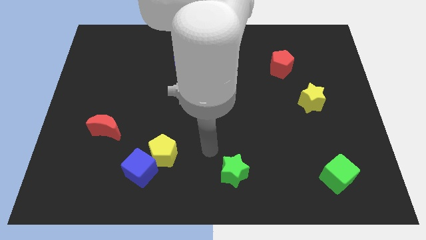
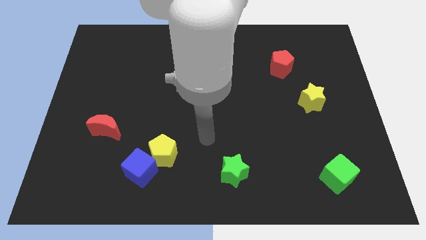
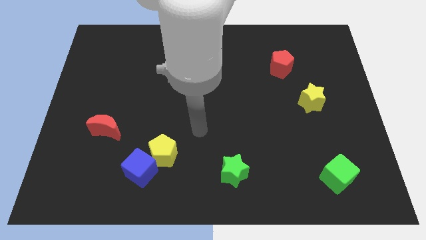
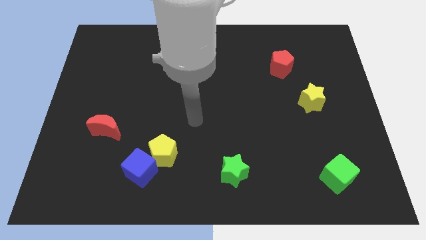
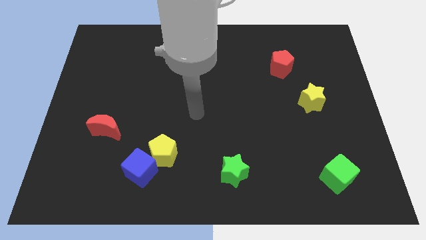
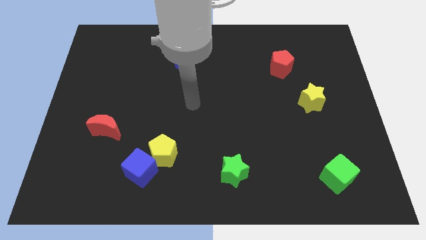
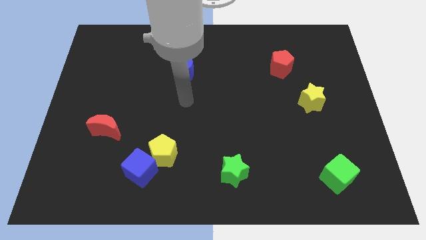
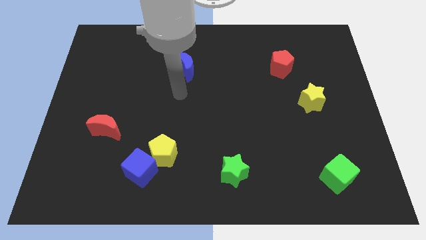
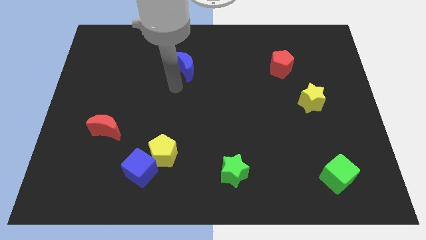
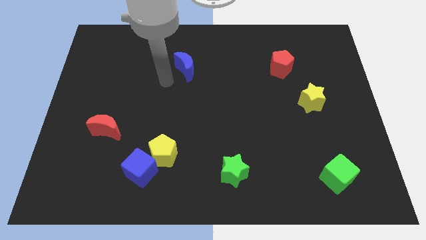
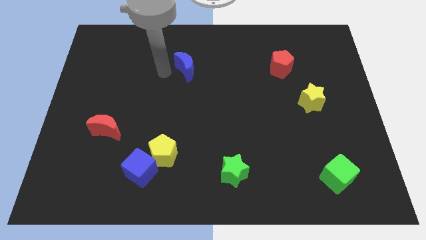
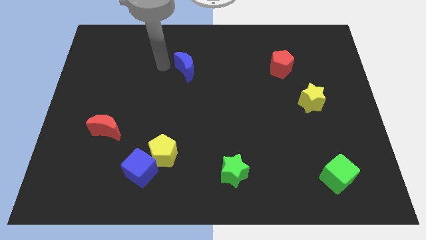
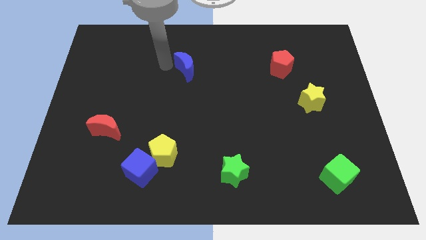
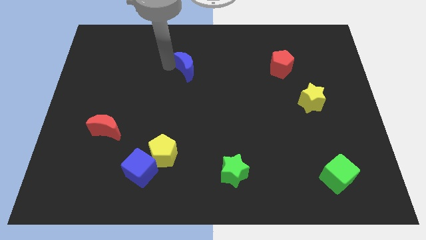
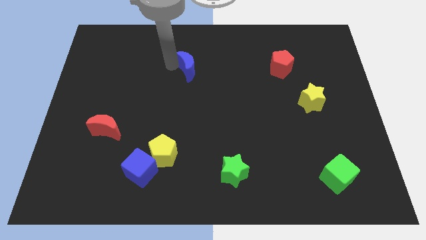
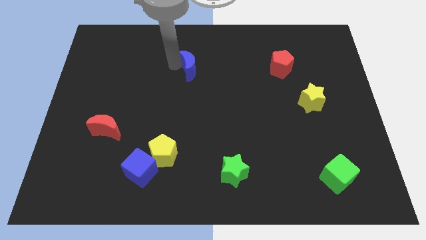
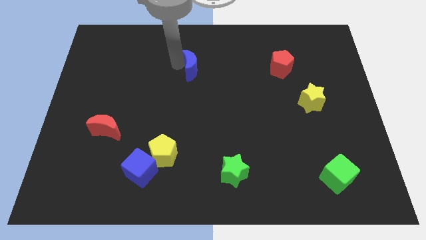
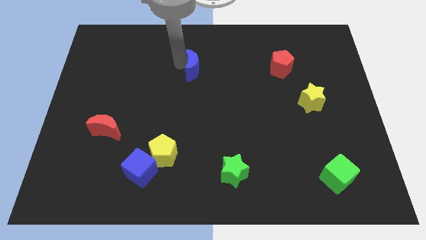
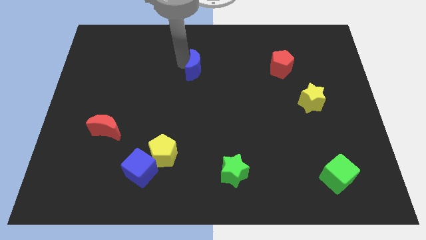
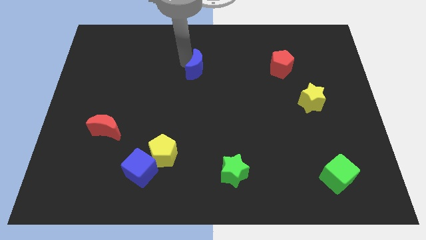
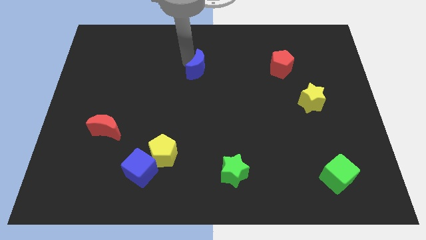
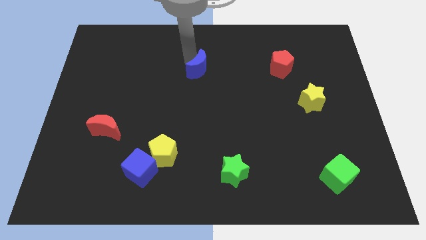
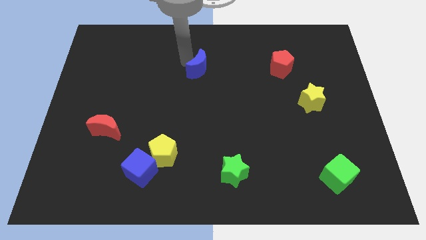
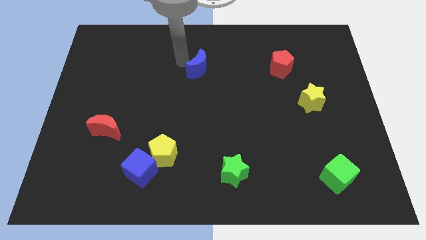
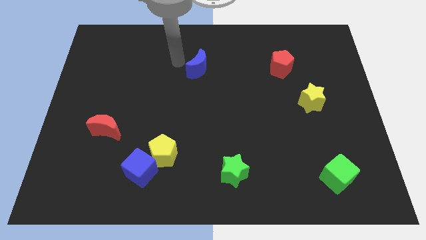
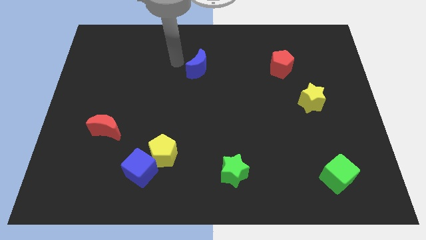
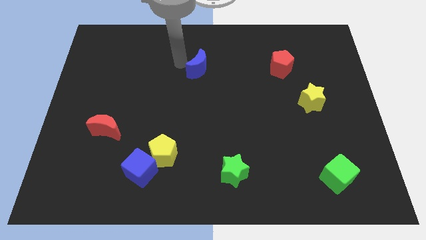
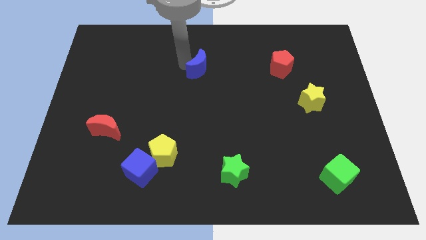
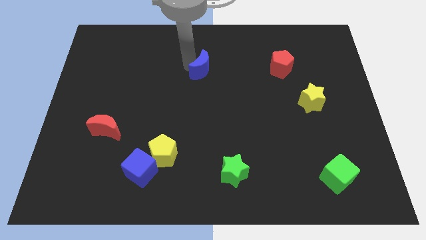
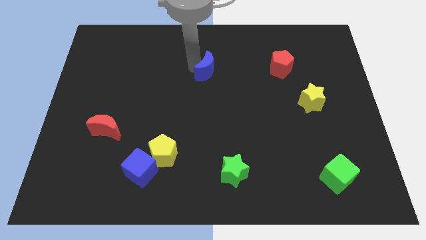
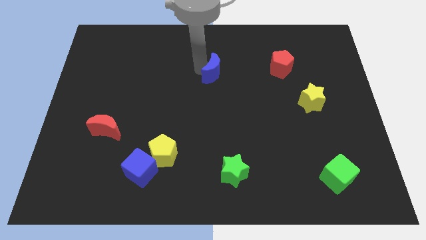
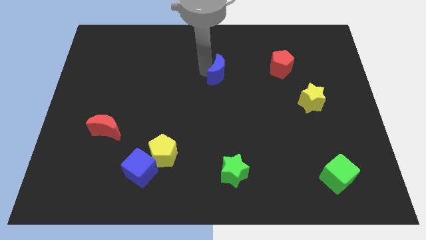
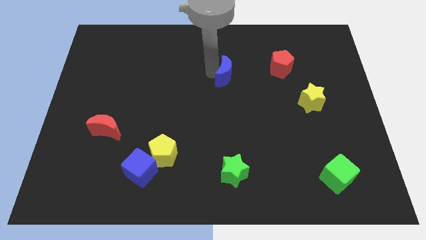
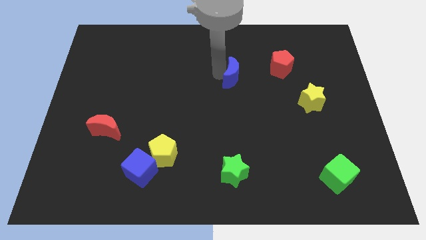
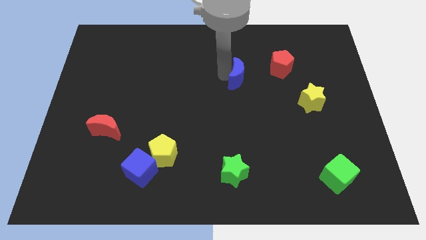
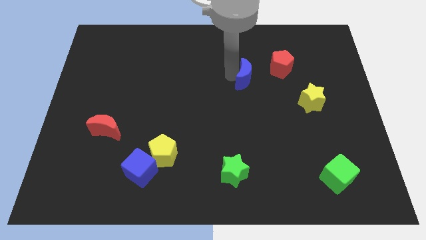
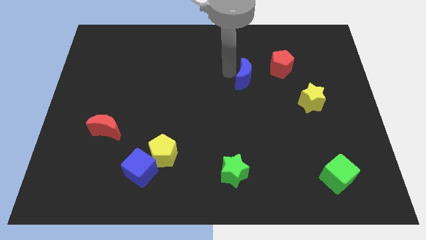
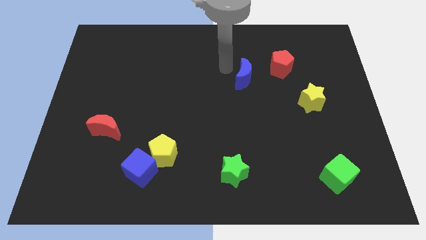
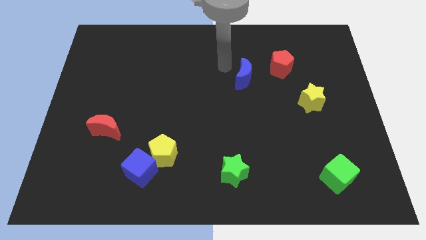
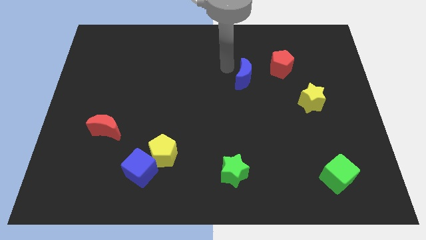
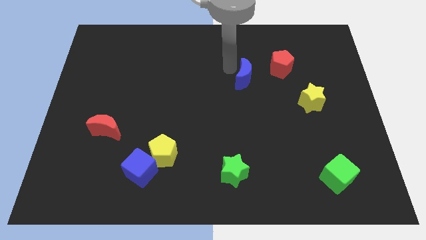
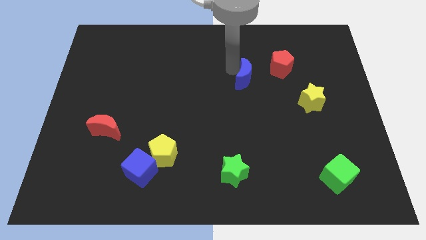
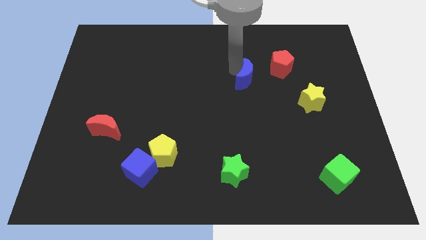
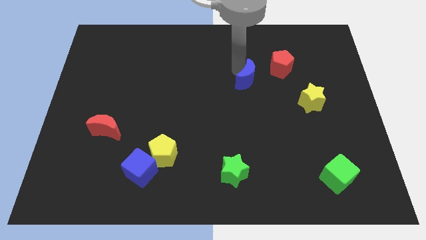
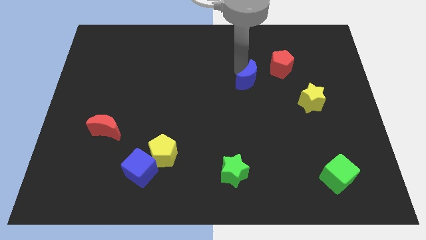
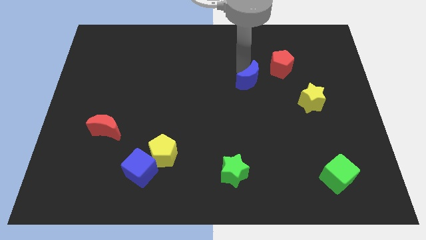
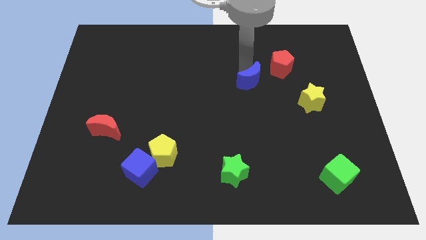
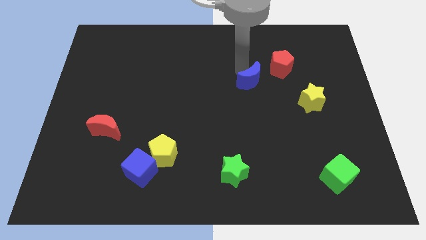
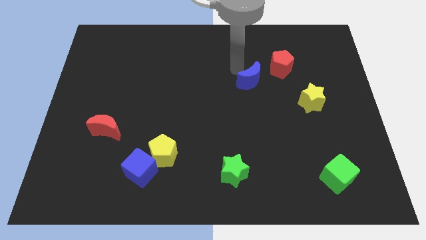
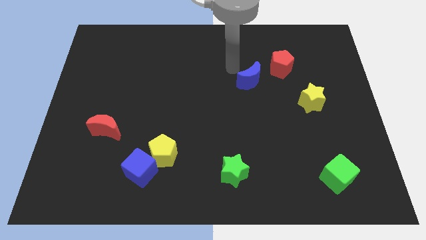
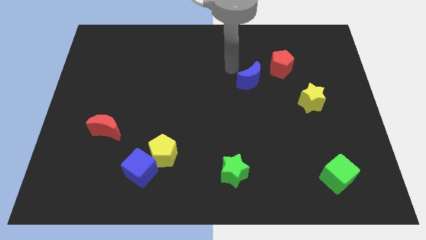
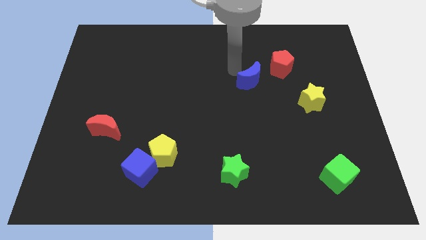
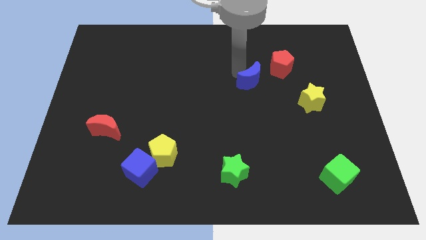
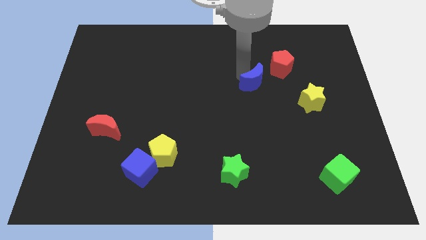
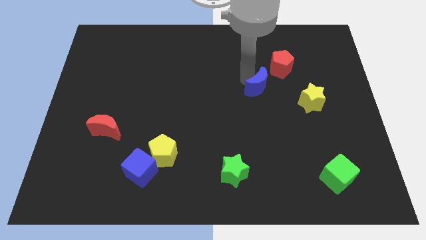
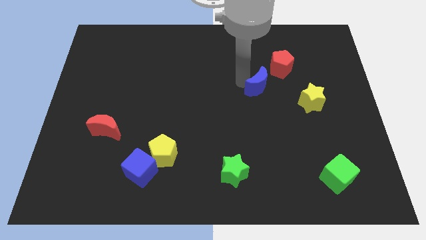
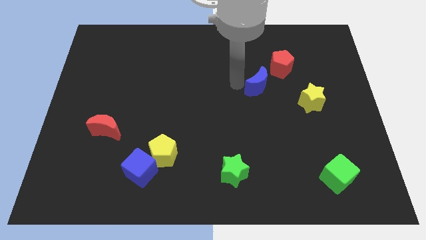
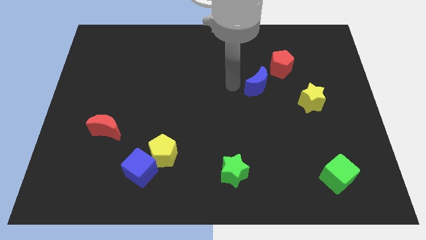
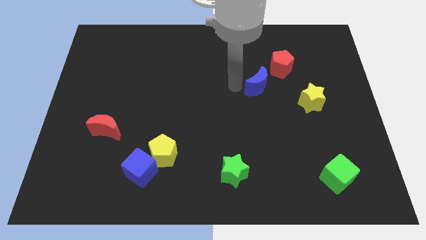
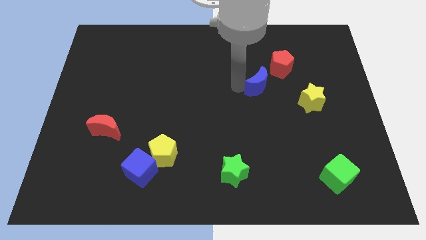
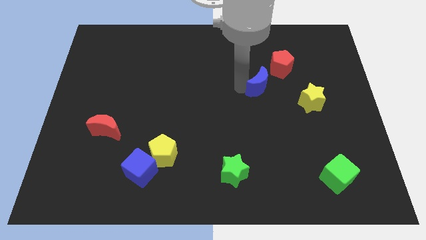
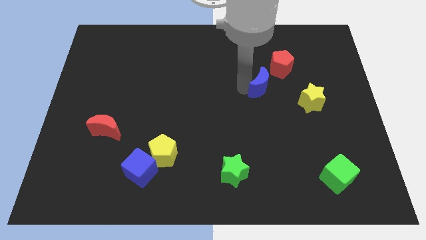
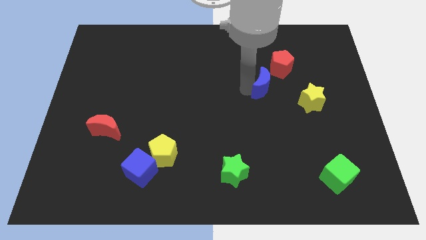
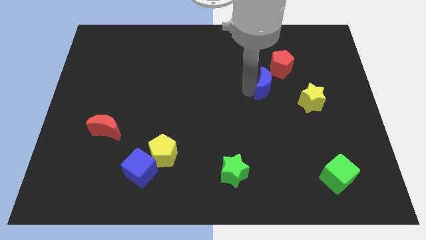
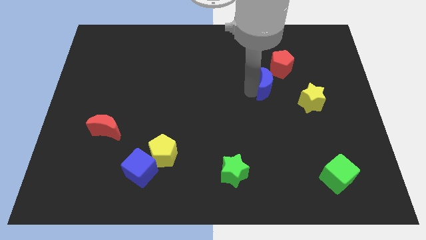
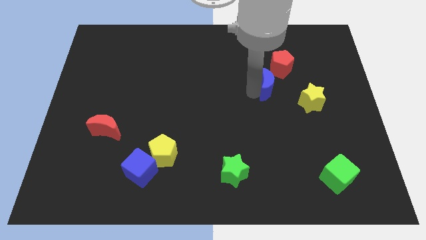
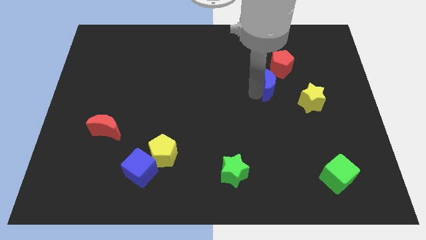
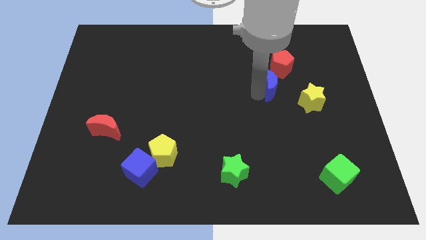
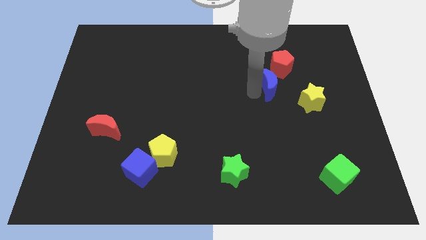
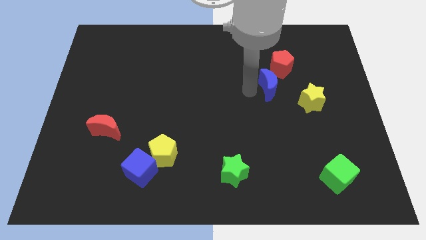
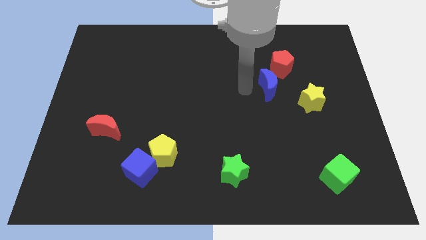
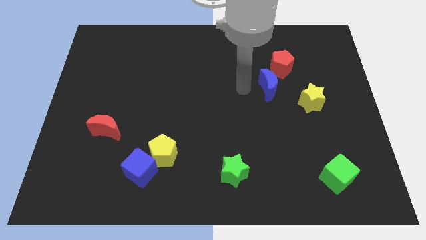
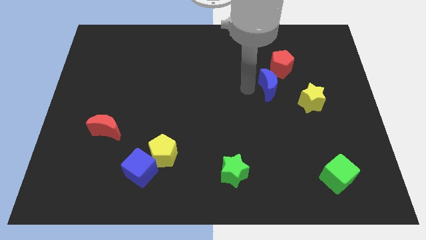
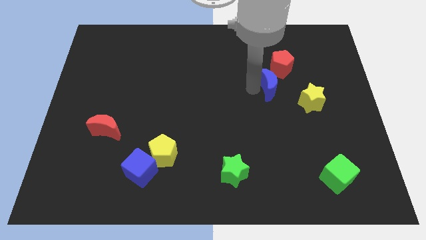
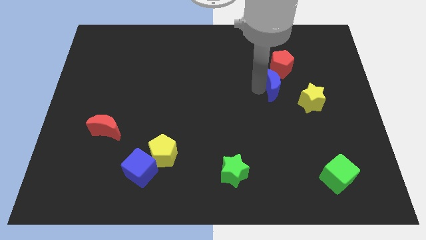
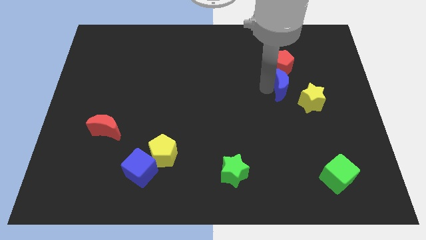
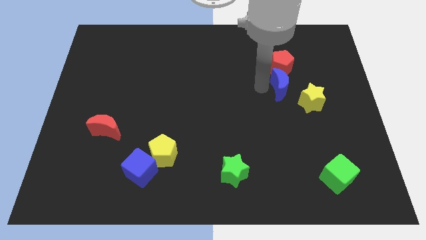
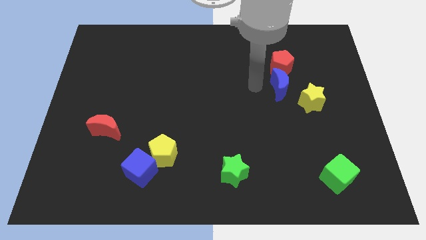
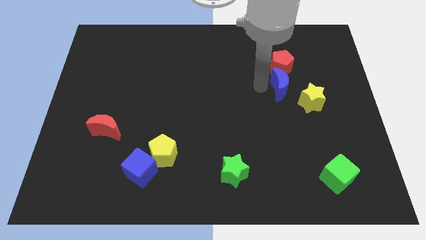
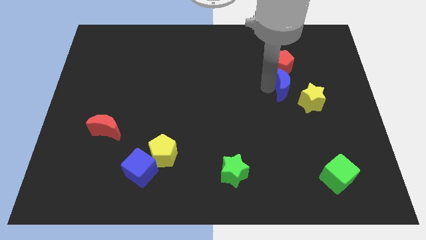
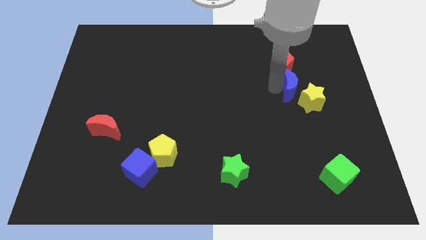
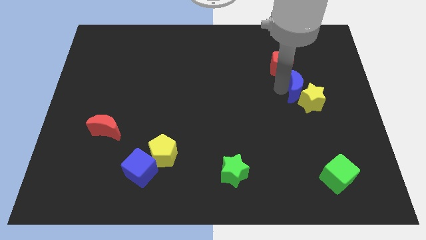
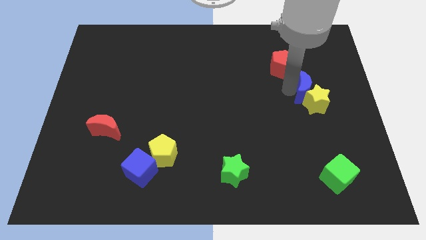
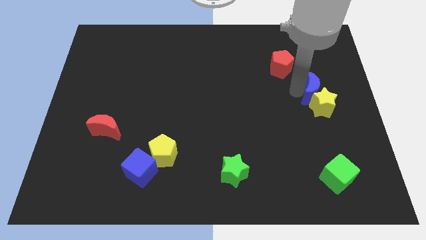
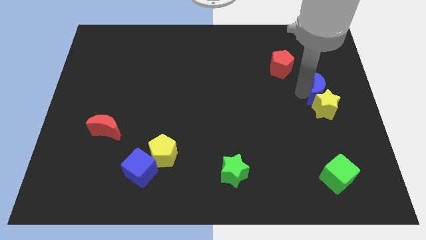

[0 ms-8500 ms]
move the blue moon to the right side
